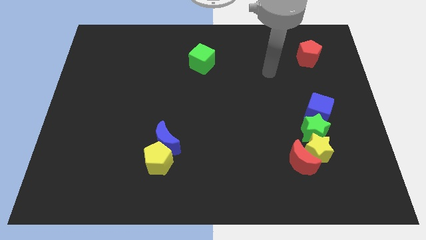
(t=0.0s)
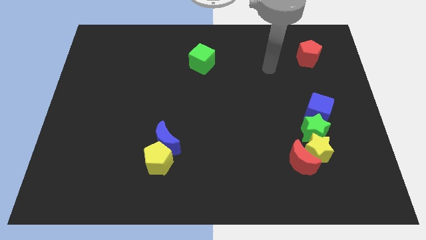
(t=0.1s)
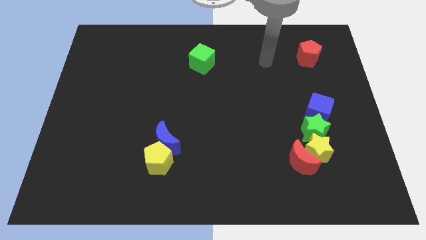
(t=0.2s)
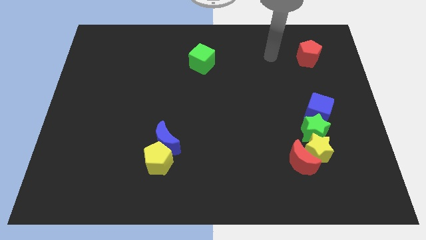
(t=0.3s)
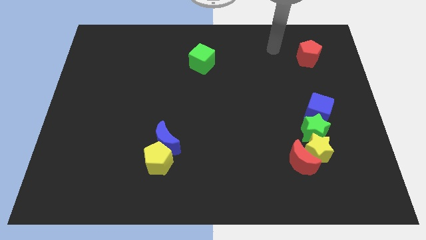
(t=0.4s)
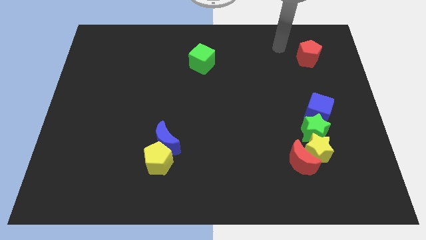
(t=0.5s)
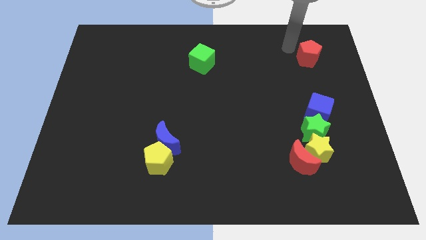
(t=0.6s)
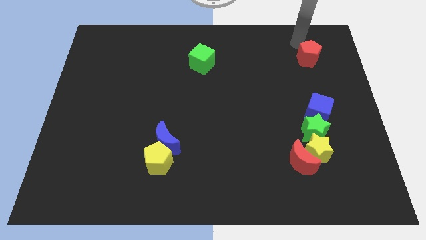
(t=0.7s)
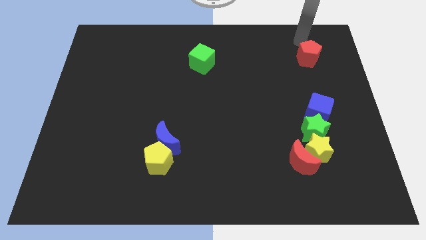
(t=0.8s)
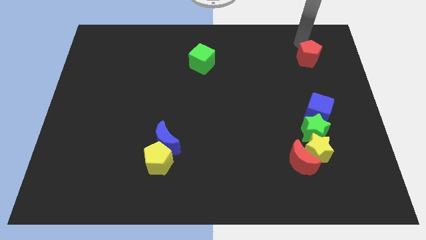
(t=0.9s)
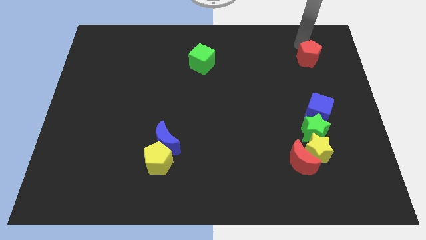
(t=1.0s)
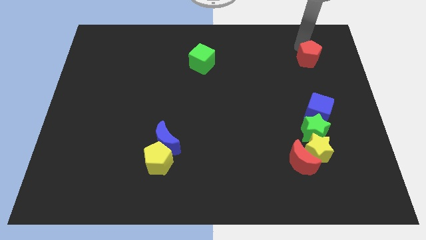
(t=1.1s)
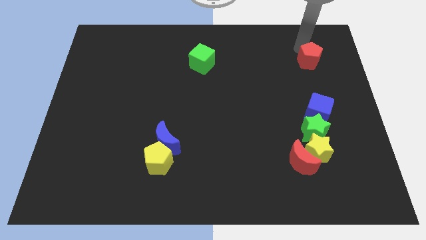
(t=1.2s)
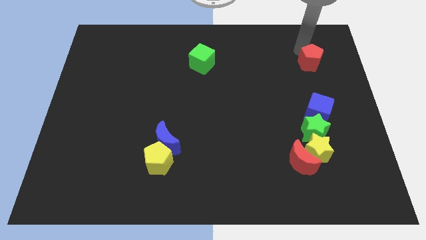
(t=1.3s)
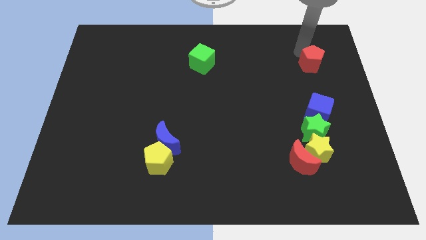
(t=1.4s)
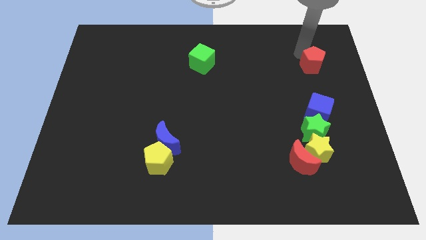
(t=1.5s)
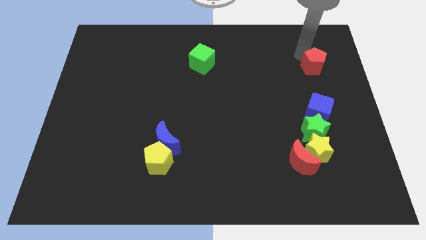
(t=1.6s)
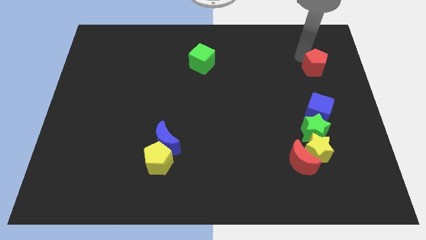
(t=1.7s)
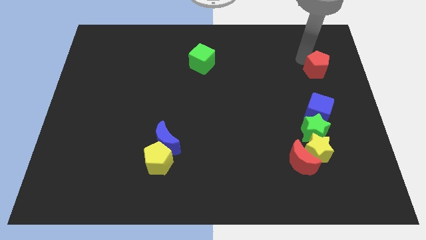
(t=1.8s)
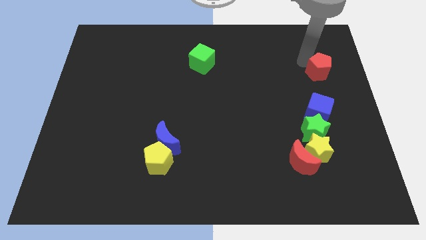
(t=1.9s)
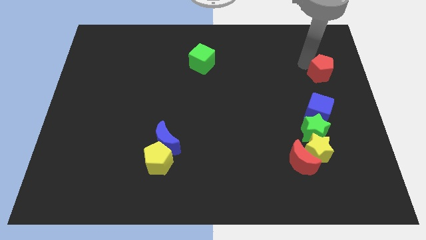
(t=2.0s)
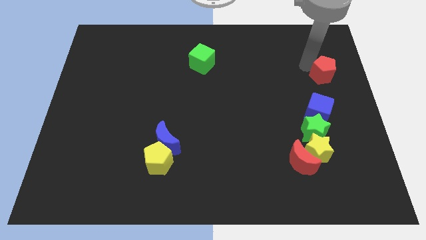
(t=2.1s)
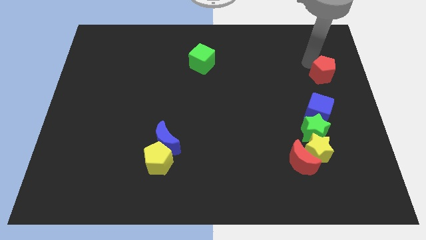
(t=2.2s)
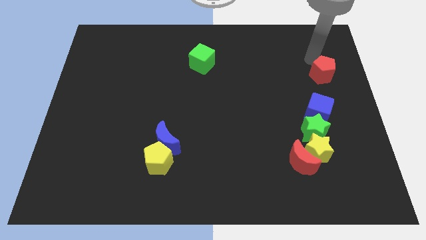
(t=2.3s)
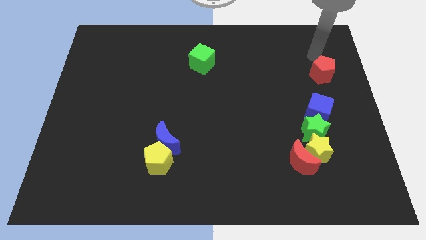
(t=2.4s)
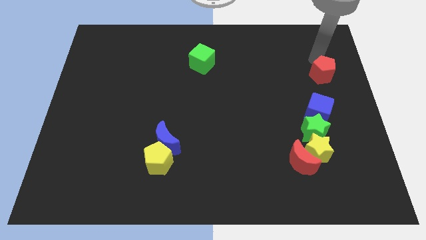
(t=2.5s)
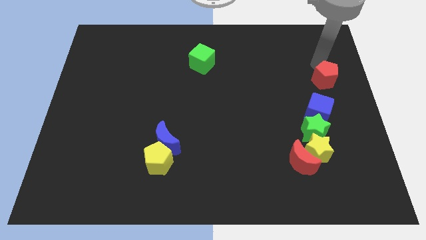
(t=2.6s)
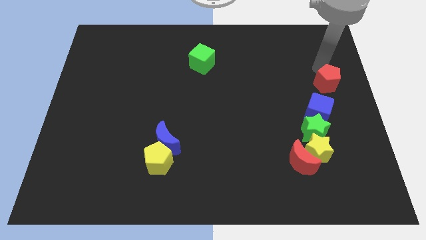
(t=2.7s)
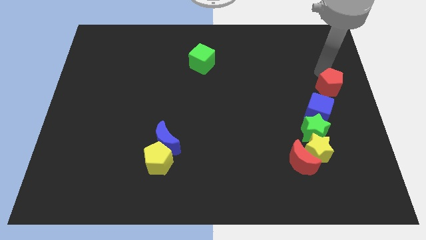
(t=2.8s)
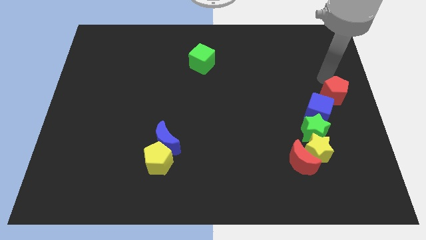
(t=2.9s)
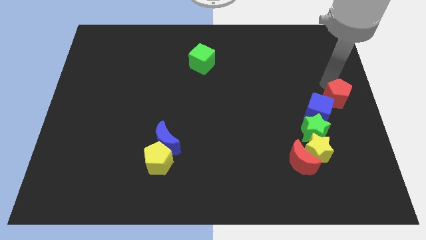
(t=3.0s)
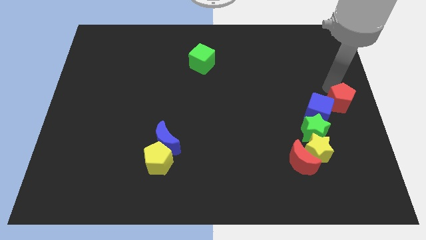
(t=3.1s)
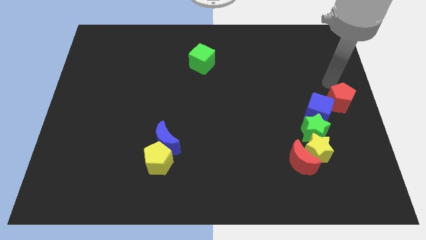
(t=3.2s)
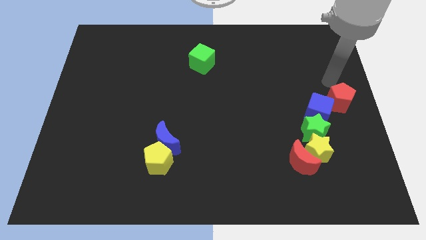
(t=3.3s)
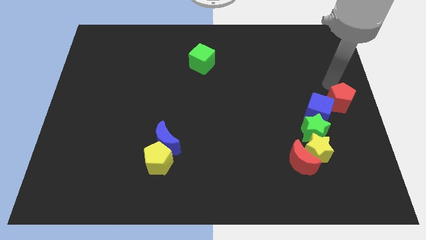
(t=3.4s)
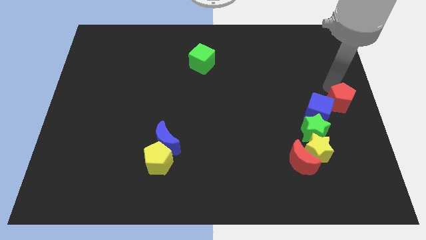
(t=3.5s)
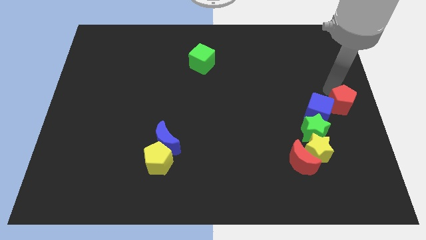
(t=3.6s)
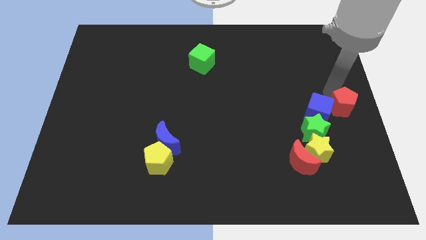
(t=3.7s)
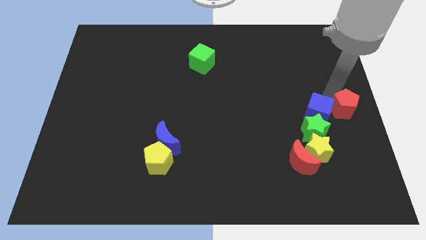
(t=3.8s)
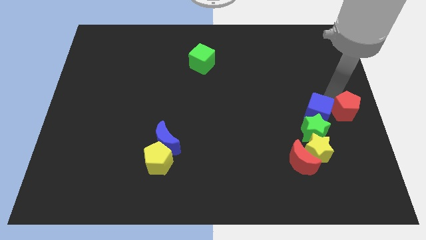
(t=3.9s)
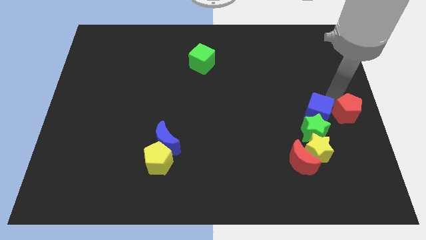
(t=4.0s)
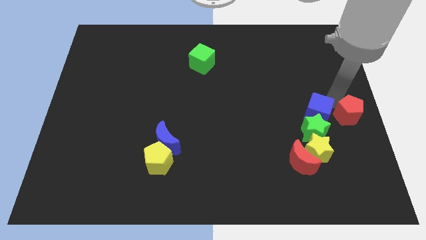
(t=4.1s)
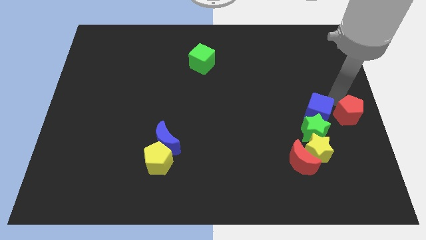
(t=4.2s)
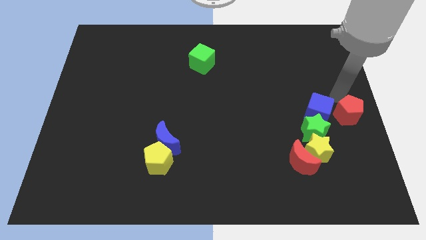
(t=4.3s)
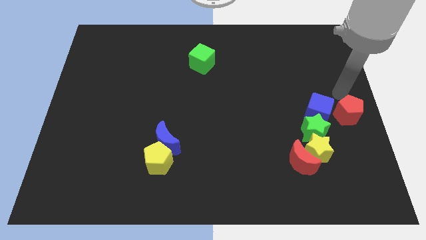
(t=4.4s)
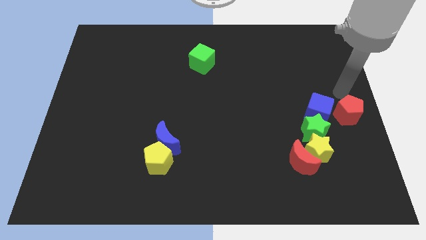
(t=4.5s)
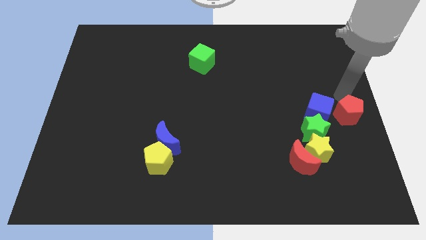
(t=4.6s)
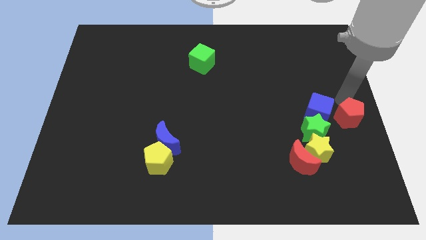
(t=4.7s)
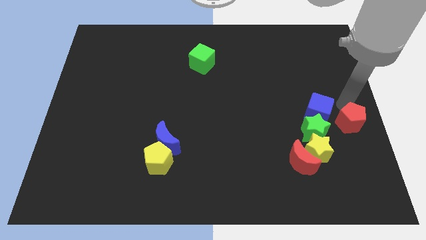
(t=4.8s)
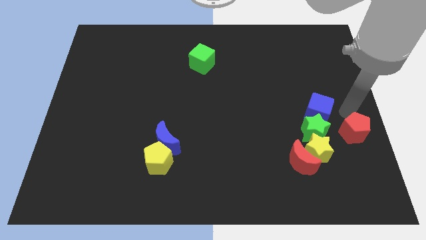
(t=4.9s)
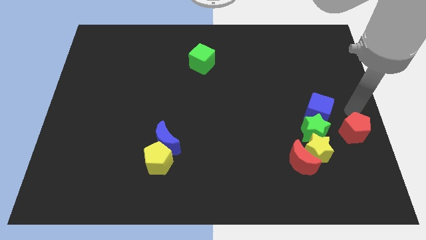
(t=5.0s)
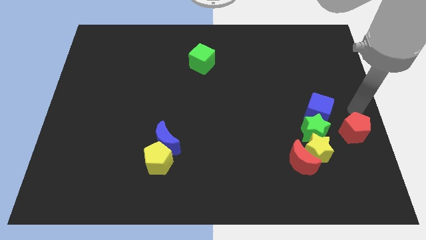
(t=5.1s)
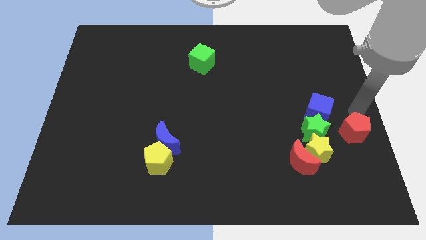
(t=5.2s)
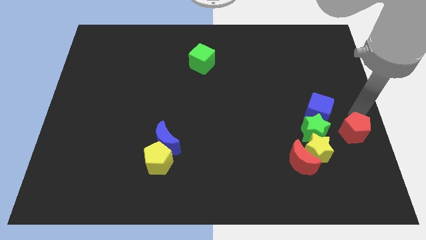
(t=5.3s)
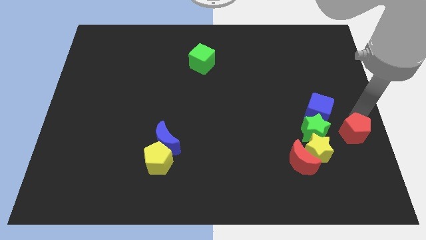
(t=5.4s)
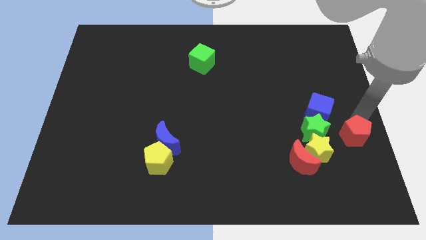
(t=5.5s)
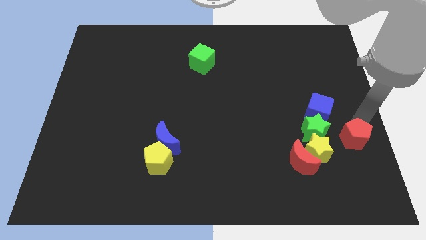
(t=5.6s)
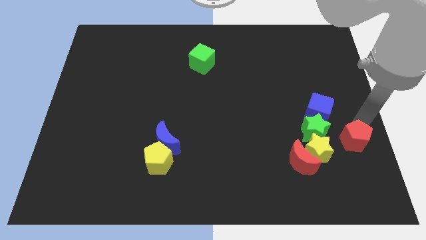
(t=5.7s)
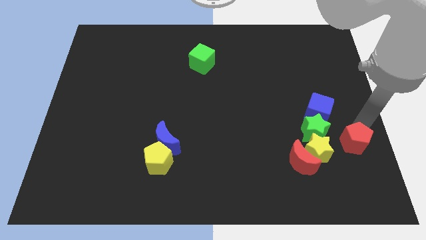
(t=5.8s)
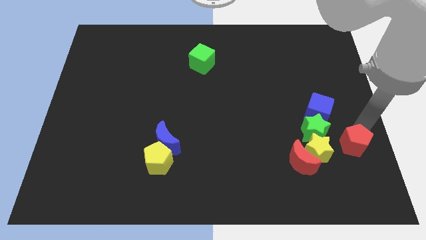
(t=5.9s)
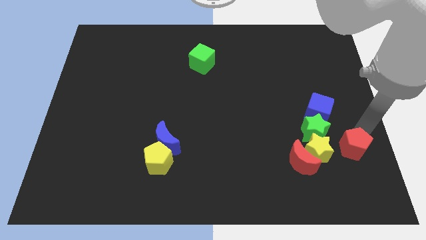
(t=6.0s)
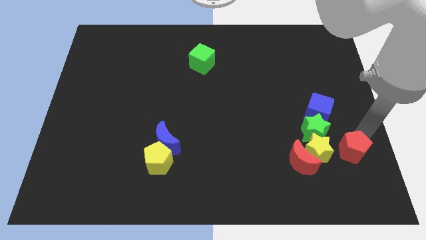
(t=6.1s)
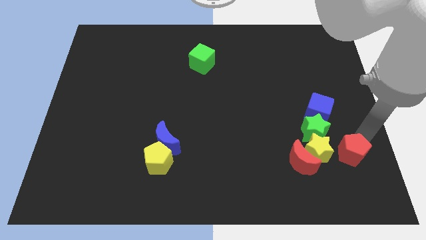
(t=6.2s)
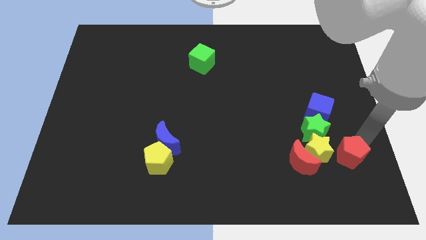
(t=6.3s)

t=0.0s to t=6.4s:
slide the red pentagon to the bottom side of the blue cube

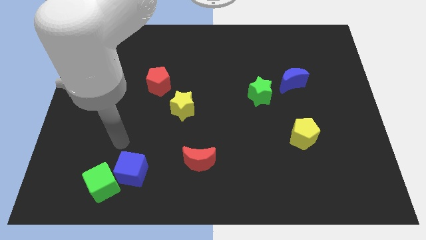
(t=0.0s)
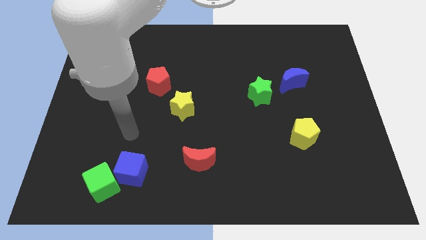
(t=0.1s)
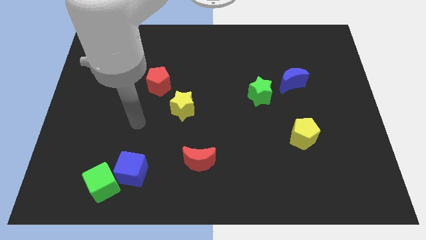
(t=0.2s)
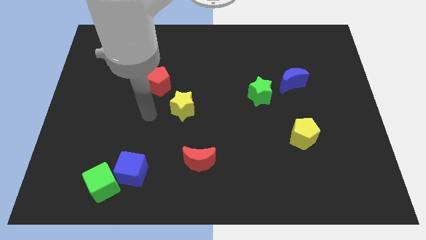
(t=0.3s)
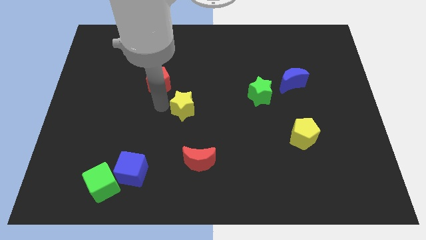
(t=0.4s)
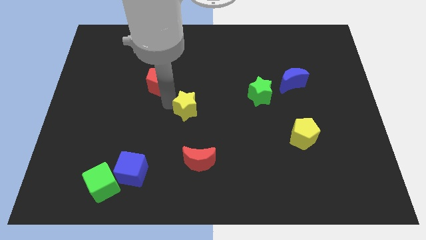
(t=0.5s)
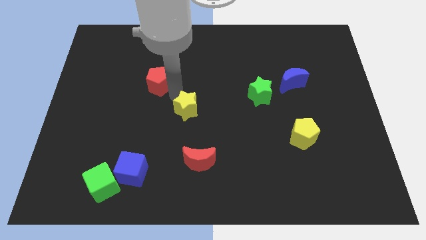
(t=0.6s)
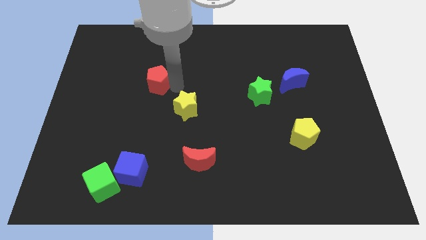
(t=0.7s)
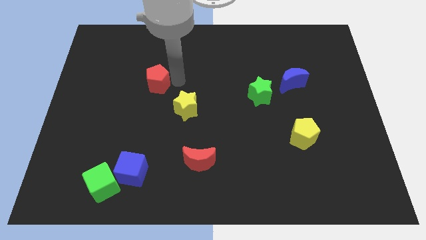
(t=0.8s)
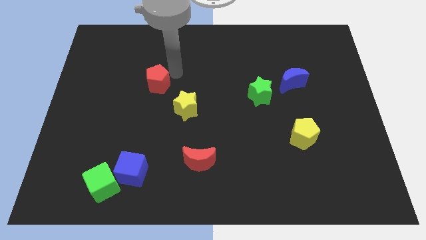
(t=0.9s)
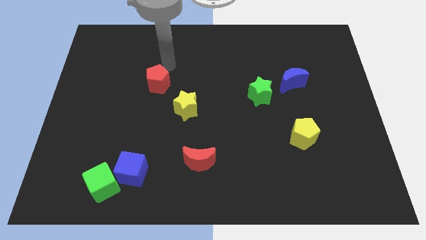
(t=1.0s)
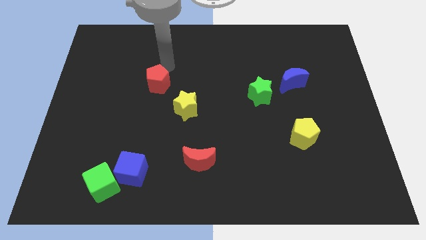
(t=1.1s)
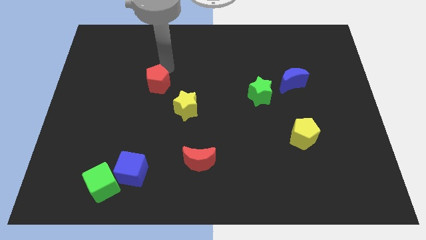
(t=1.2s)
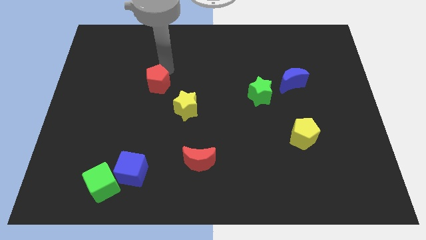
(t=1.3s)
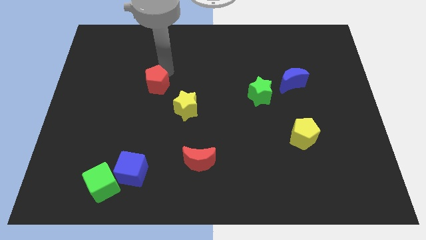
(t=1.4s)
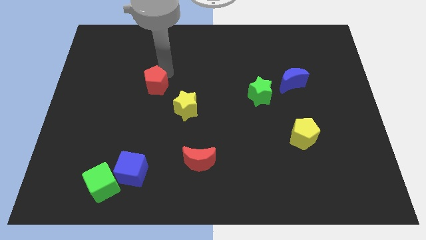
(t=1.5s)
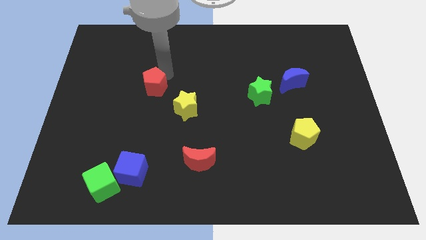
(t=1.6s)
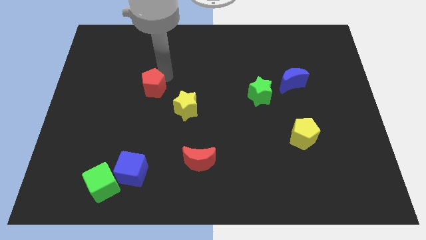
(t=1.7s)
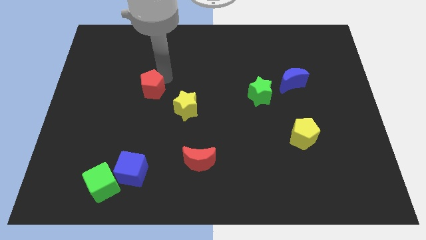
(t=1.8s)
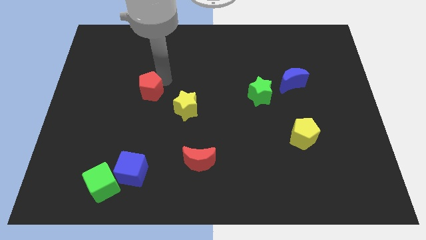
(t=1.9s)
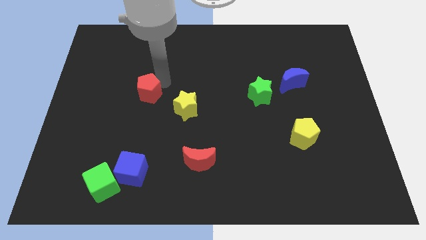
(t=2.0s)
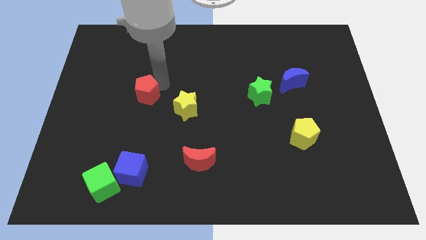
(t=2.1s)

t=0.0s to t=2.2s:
put the red pentagon just left of the yellow star
